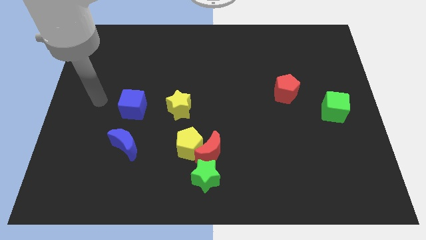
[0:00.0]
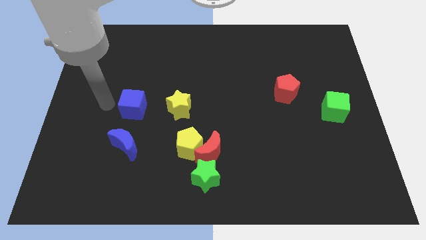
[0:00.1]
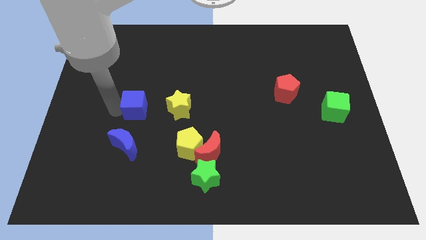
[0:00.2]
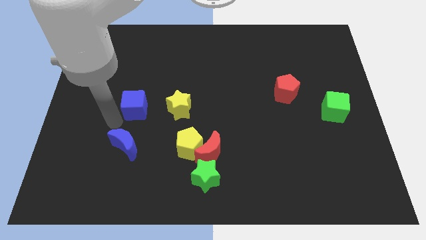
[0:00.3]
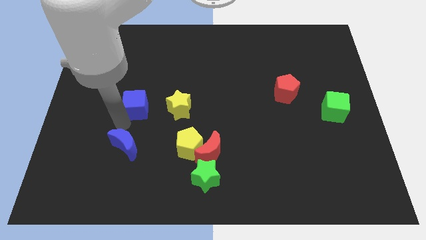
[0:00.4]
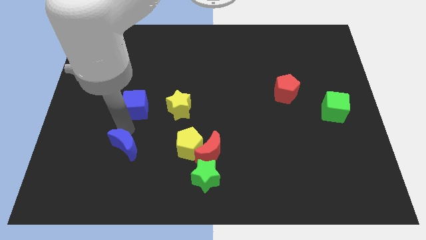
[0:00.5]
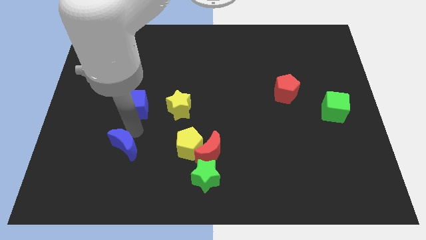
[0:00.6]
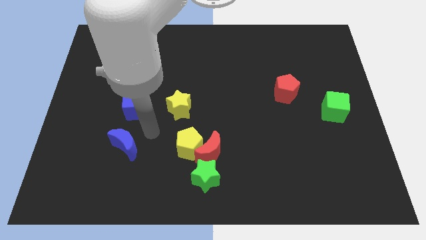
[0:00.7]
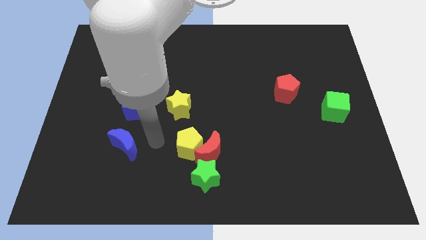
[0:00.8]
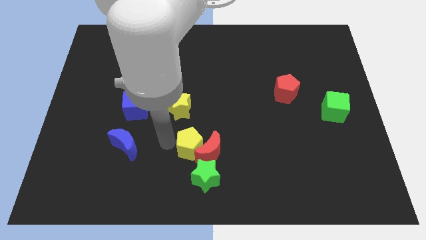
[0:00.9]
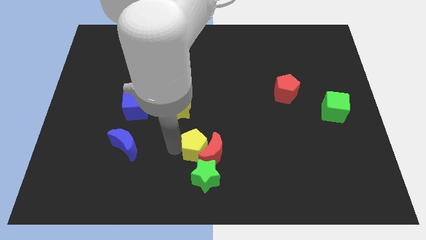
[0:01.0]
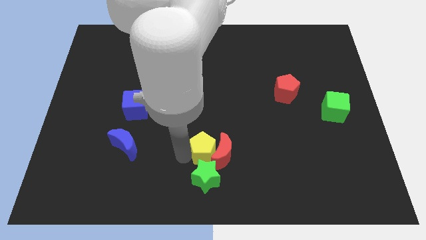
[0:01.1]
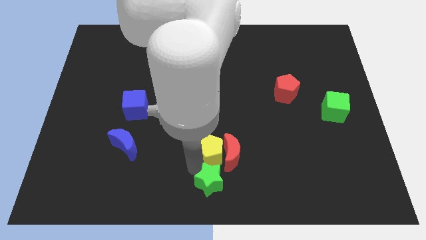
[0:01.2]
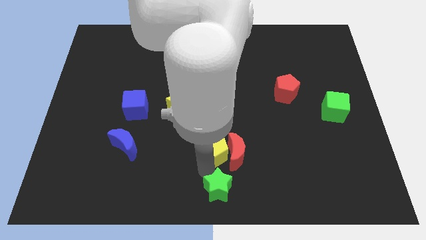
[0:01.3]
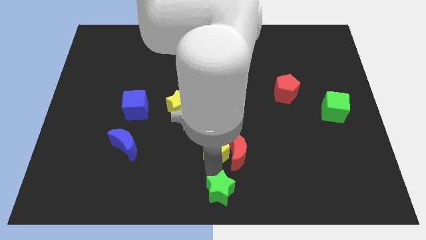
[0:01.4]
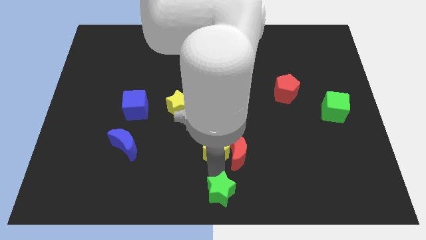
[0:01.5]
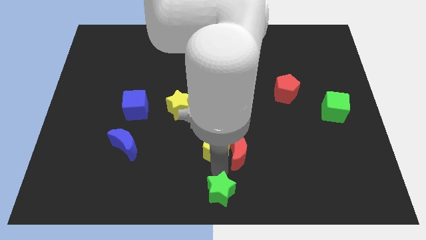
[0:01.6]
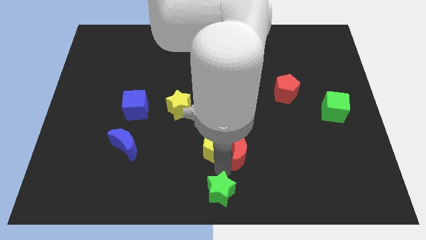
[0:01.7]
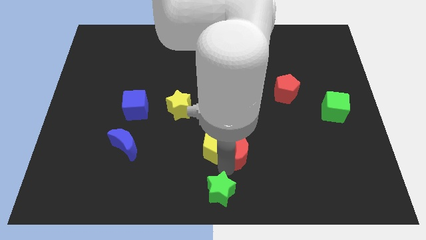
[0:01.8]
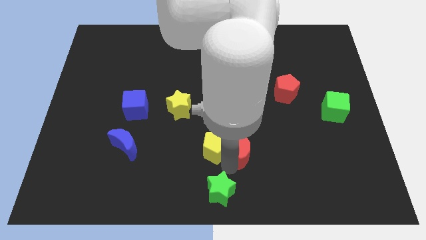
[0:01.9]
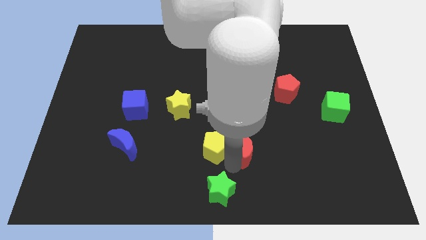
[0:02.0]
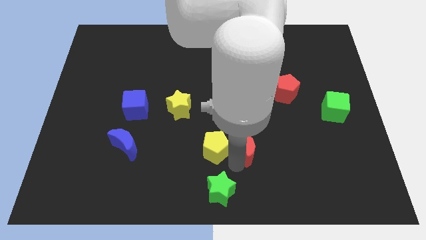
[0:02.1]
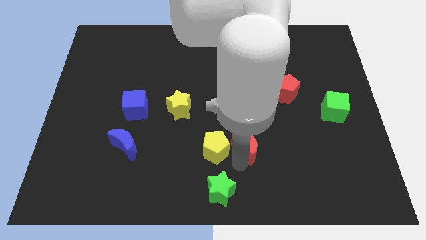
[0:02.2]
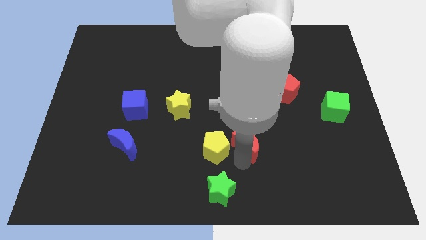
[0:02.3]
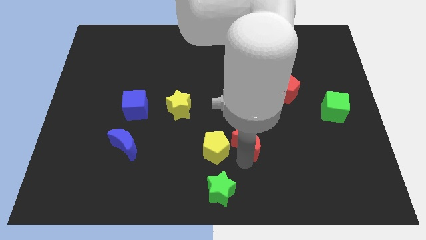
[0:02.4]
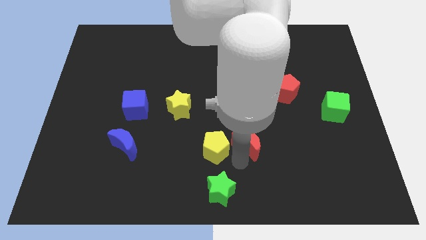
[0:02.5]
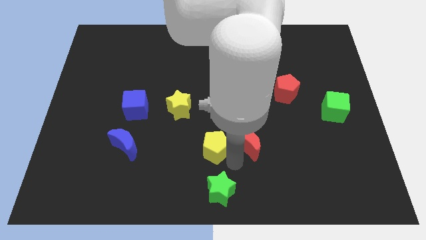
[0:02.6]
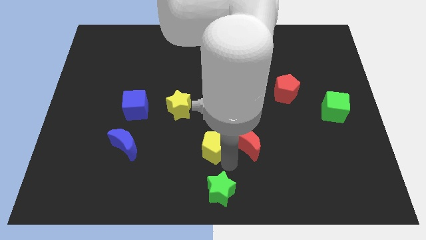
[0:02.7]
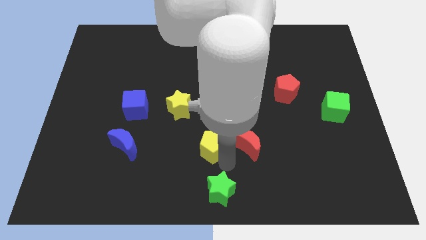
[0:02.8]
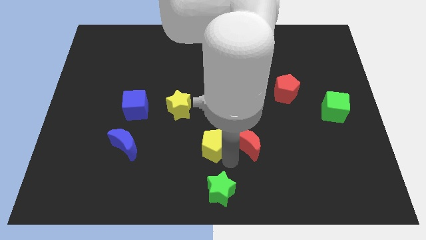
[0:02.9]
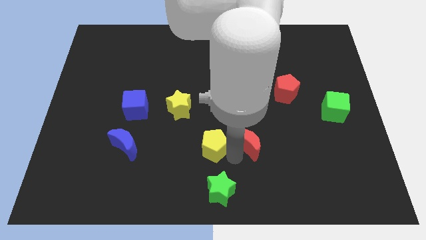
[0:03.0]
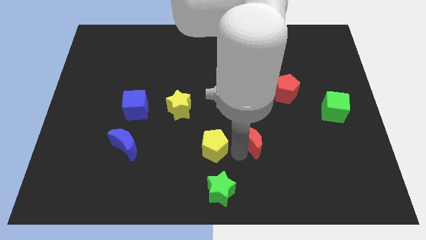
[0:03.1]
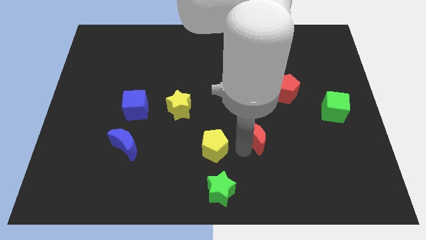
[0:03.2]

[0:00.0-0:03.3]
separate the red moon from the yellow pentagon and green star

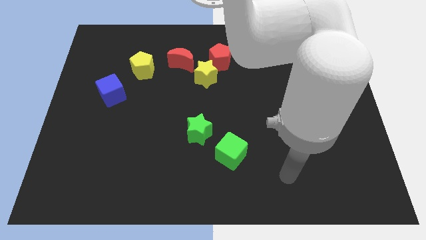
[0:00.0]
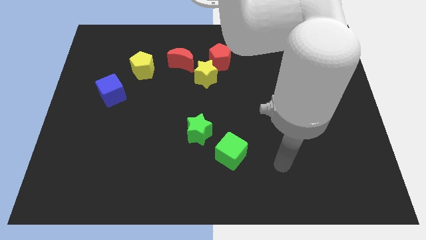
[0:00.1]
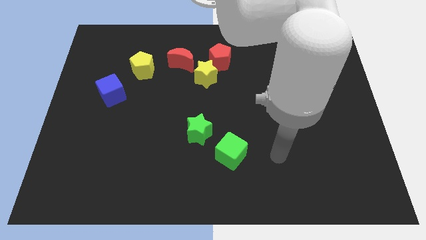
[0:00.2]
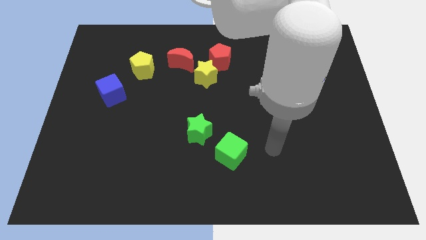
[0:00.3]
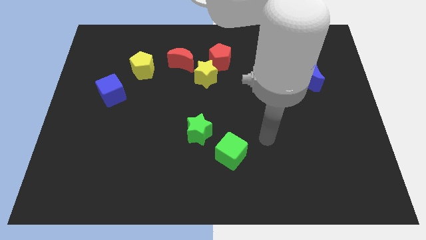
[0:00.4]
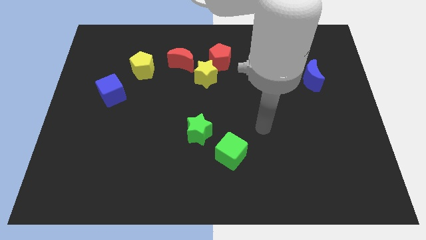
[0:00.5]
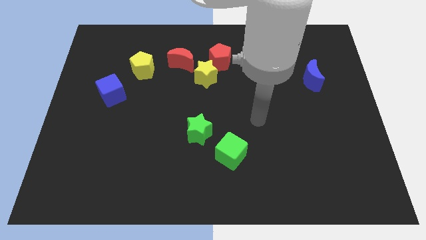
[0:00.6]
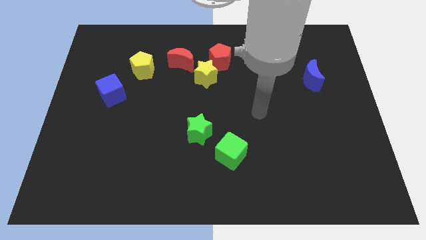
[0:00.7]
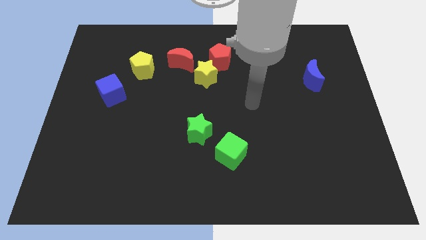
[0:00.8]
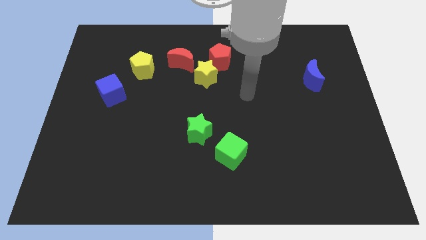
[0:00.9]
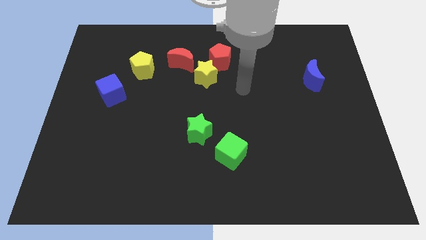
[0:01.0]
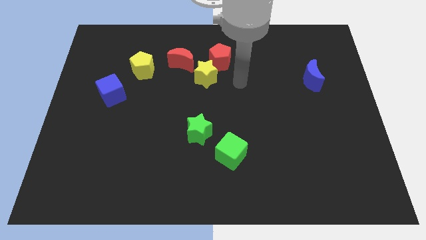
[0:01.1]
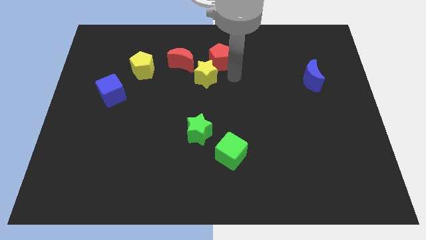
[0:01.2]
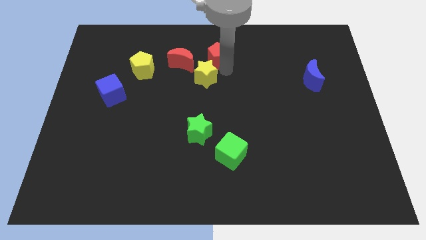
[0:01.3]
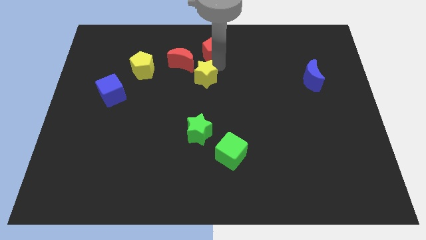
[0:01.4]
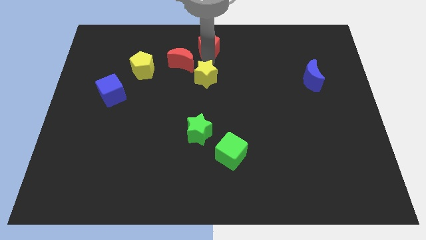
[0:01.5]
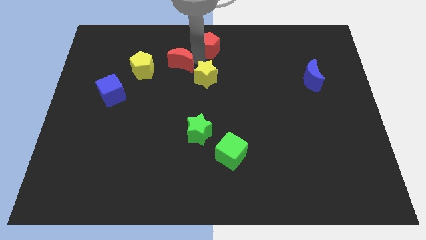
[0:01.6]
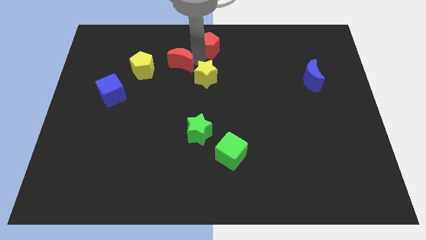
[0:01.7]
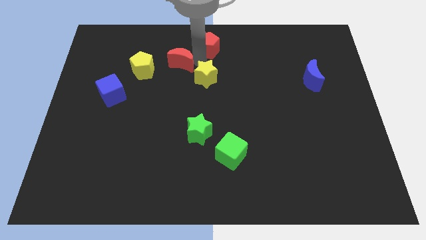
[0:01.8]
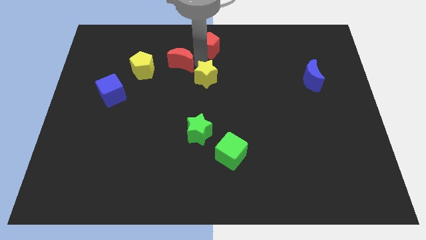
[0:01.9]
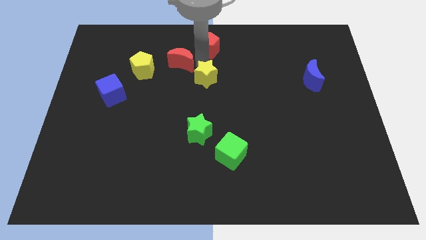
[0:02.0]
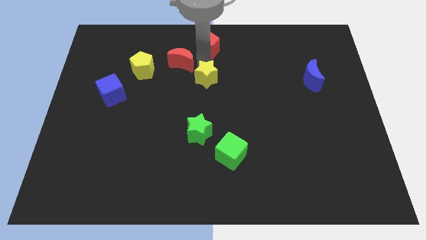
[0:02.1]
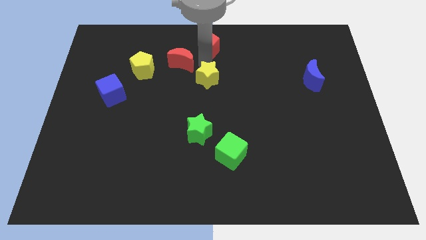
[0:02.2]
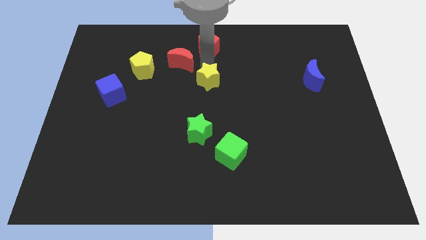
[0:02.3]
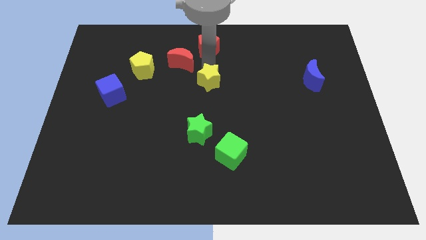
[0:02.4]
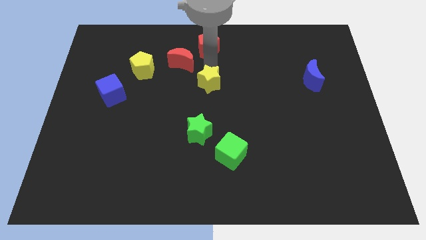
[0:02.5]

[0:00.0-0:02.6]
pull the yellow star apart from the red pentagon and red moon

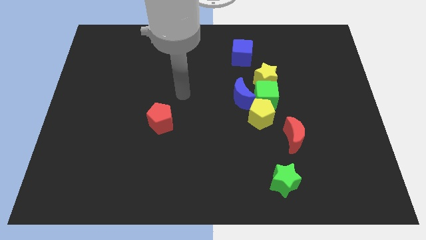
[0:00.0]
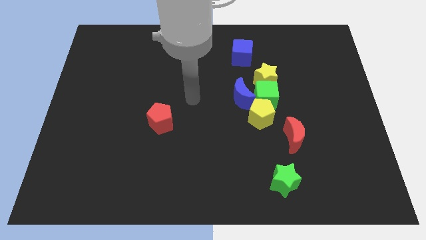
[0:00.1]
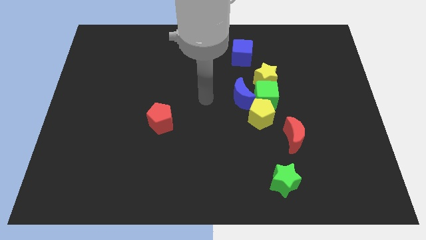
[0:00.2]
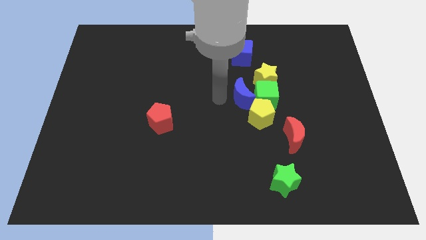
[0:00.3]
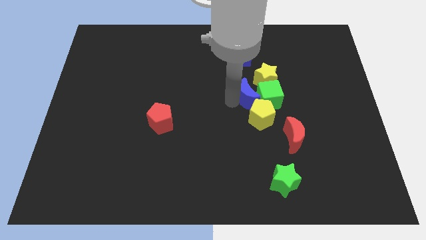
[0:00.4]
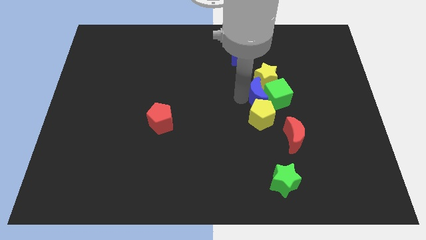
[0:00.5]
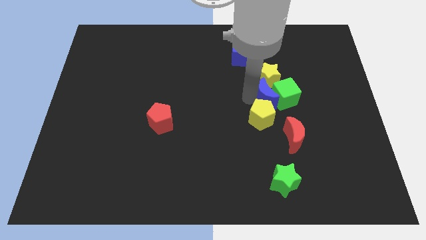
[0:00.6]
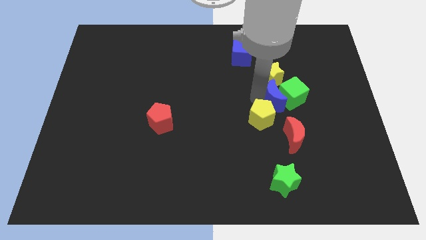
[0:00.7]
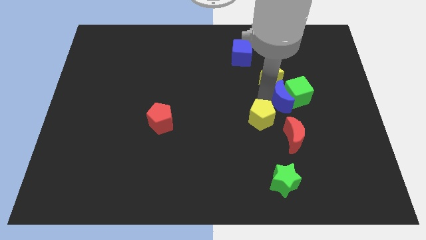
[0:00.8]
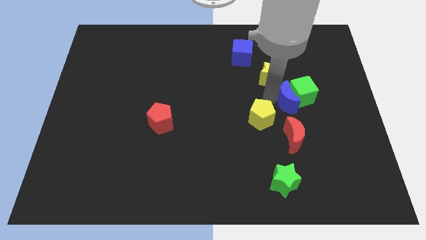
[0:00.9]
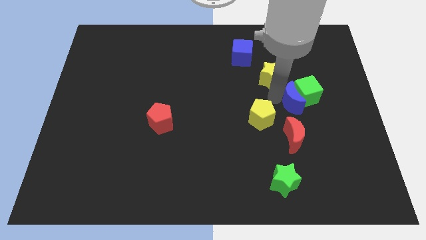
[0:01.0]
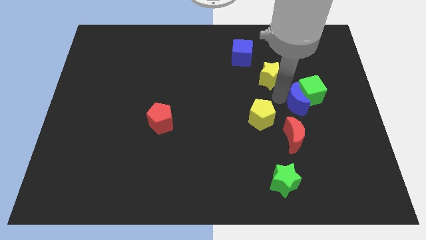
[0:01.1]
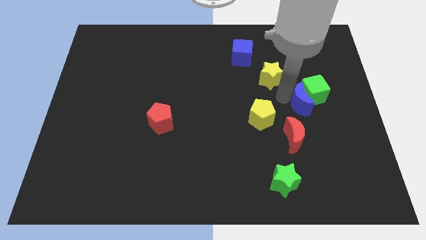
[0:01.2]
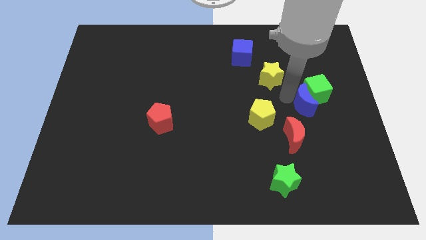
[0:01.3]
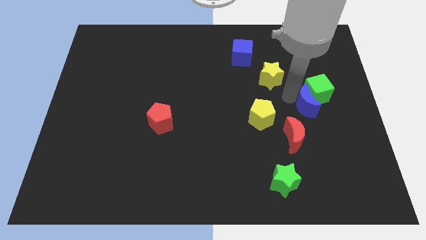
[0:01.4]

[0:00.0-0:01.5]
move the green cube away from the clump

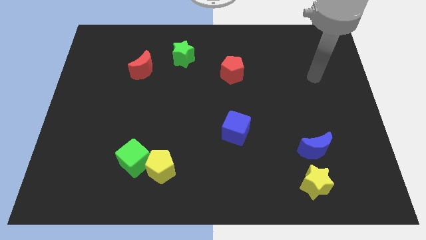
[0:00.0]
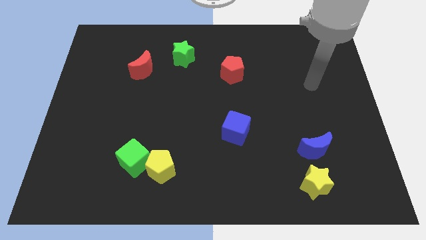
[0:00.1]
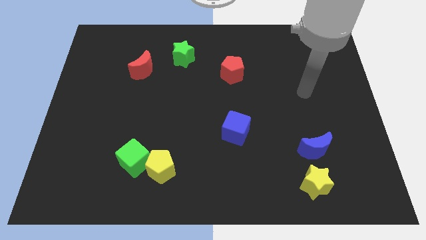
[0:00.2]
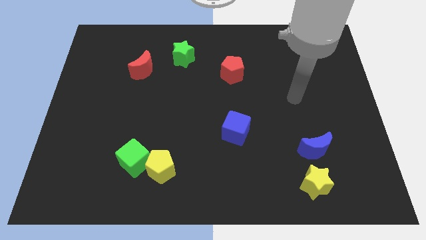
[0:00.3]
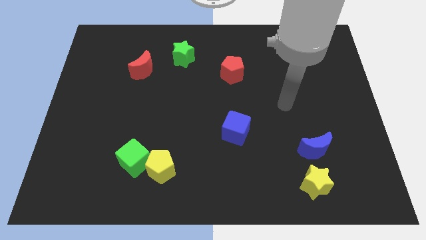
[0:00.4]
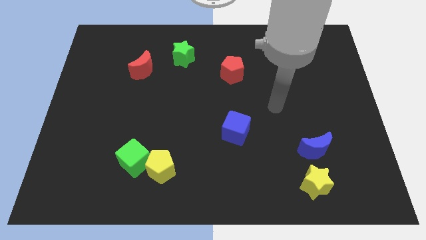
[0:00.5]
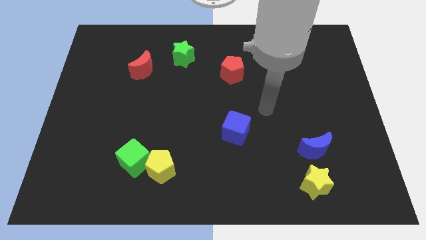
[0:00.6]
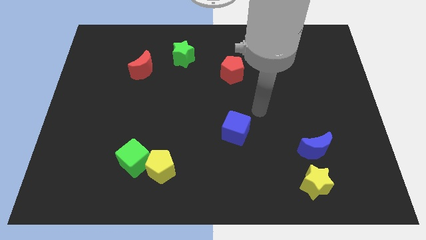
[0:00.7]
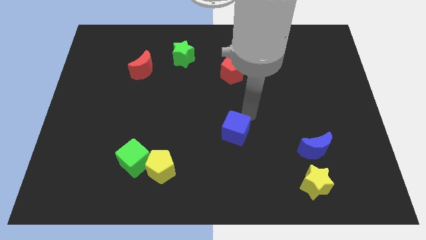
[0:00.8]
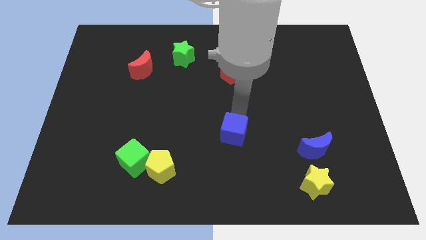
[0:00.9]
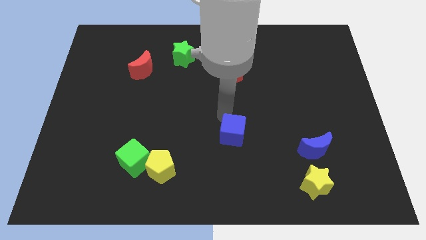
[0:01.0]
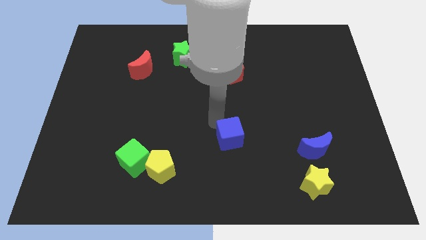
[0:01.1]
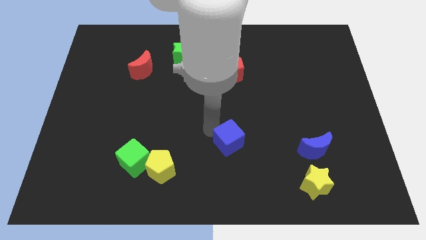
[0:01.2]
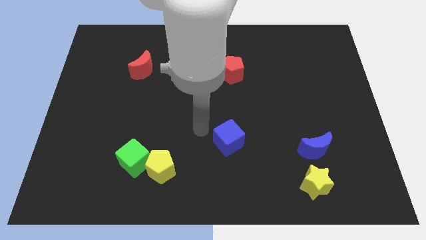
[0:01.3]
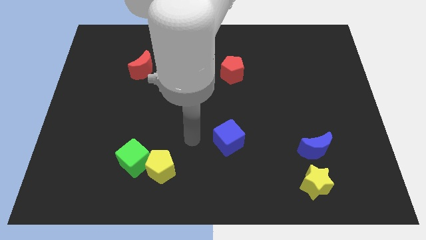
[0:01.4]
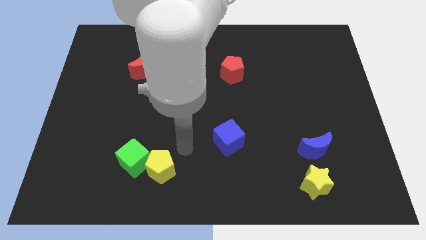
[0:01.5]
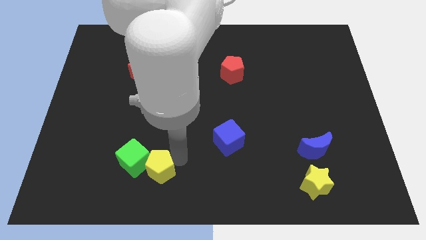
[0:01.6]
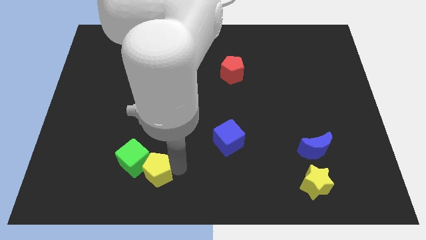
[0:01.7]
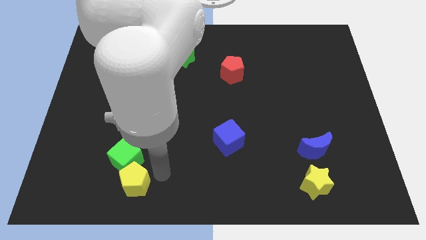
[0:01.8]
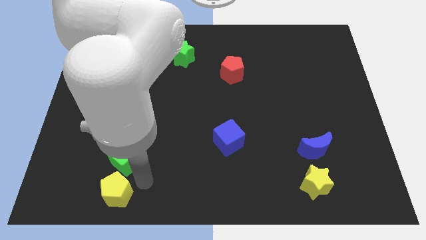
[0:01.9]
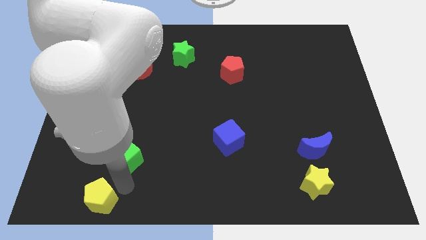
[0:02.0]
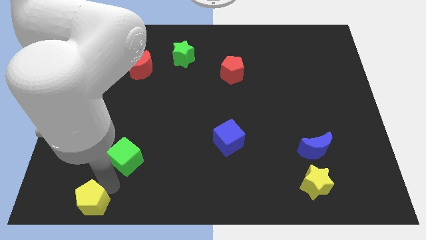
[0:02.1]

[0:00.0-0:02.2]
separate the green cube from the yellow pentagon
